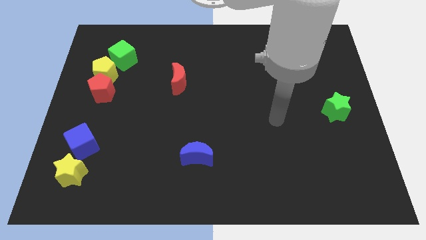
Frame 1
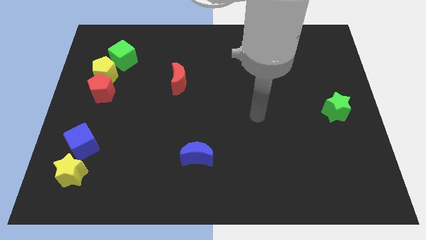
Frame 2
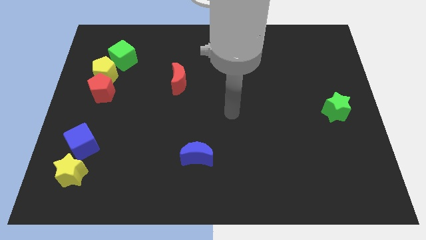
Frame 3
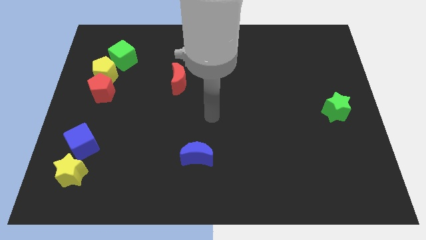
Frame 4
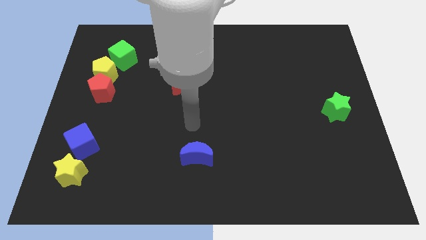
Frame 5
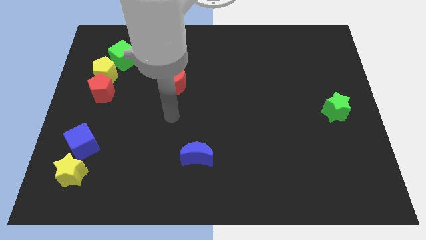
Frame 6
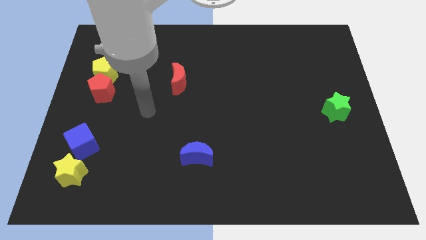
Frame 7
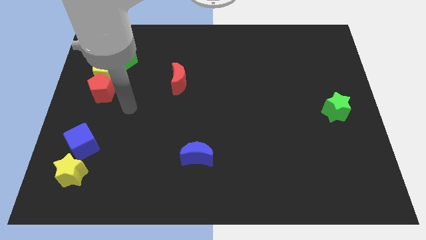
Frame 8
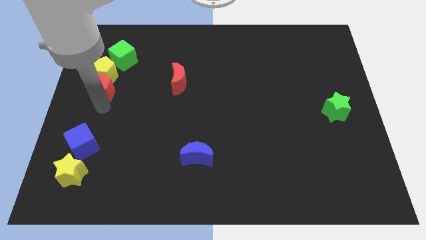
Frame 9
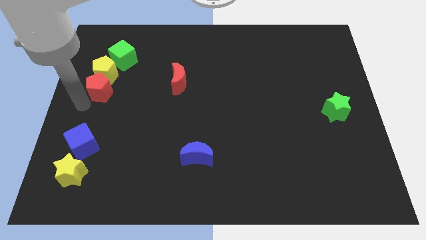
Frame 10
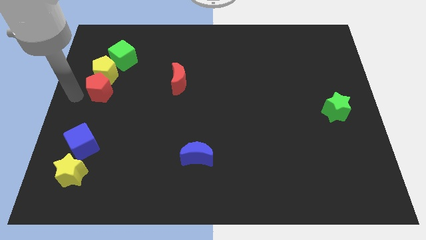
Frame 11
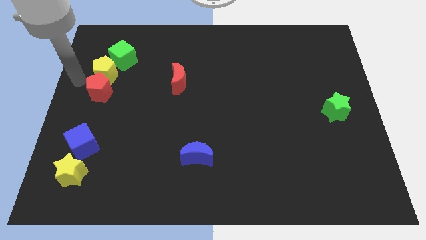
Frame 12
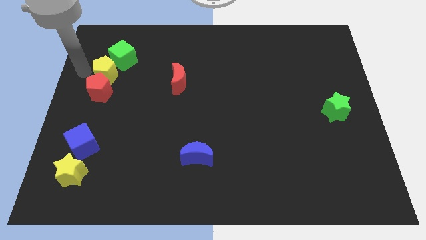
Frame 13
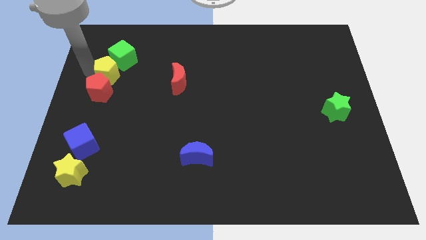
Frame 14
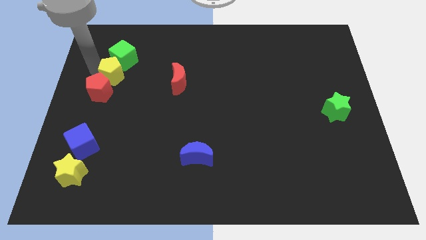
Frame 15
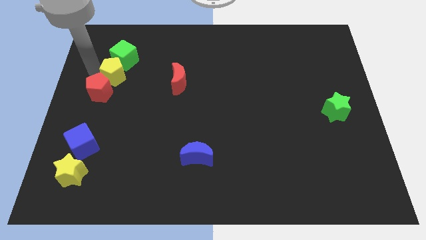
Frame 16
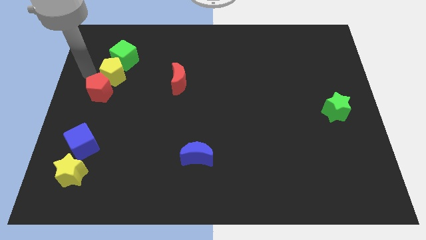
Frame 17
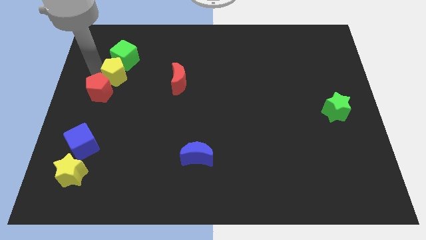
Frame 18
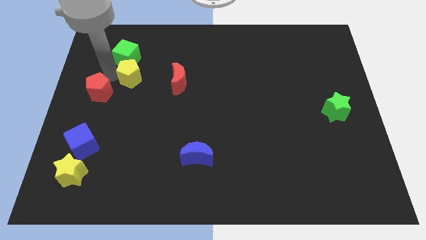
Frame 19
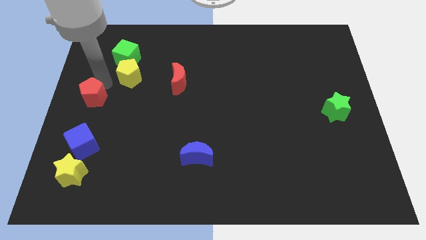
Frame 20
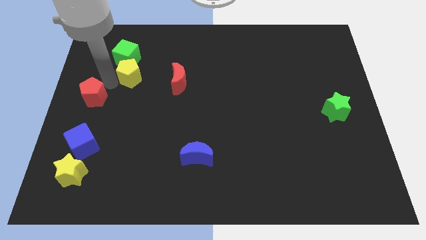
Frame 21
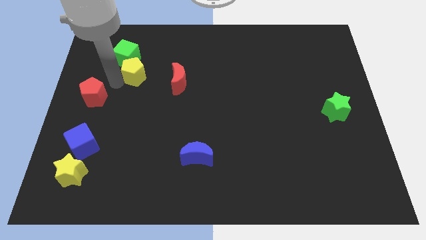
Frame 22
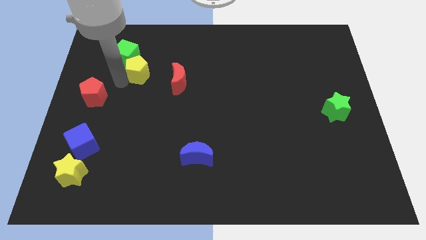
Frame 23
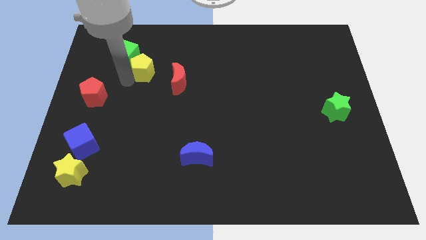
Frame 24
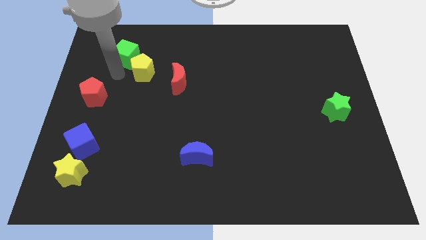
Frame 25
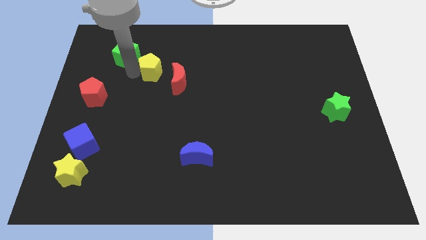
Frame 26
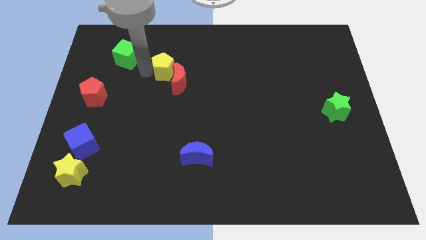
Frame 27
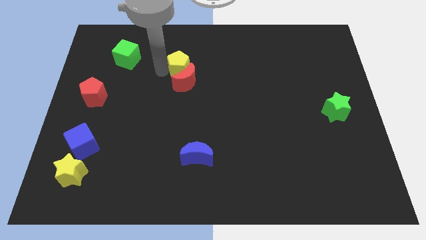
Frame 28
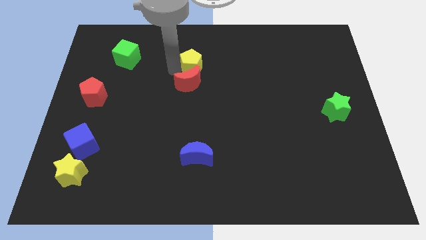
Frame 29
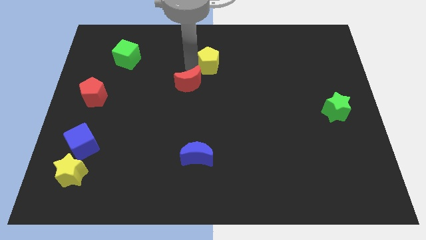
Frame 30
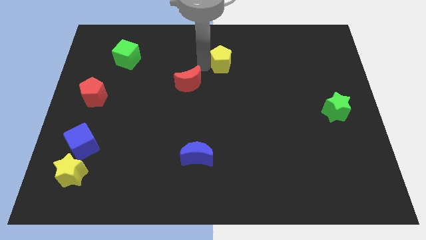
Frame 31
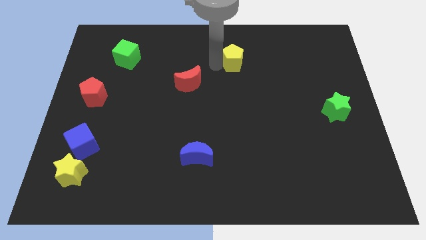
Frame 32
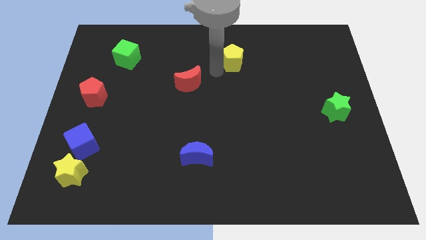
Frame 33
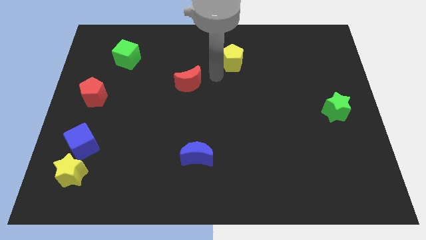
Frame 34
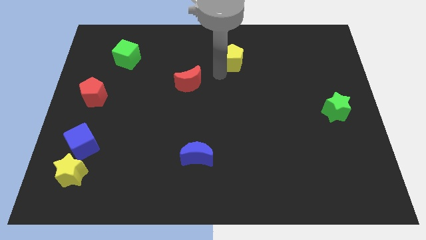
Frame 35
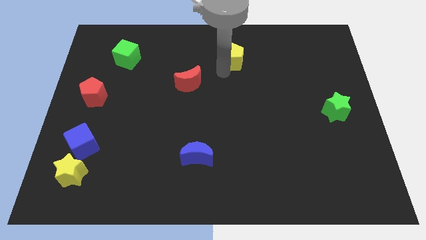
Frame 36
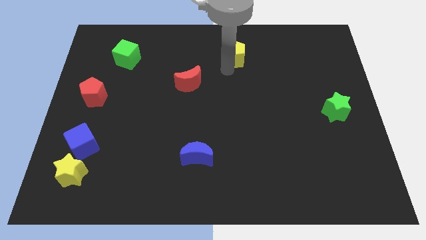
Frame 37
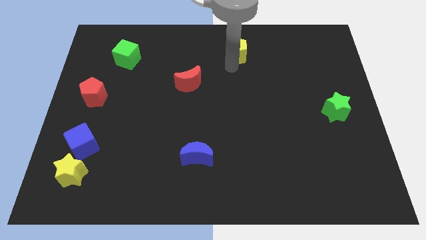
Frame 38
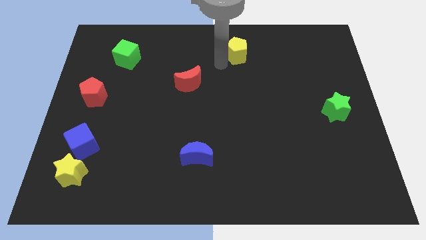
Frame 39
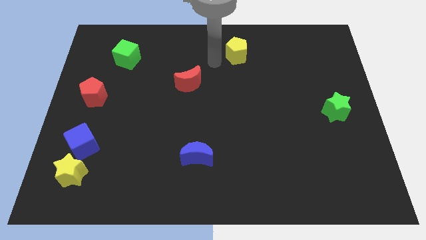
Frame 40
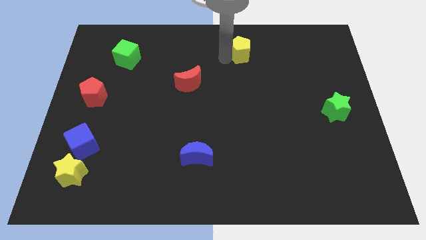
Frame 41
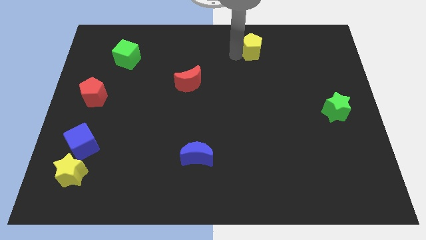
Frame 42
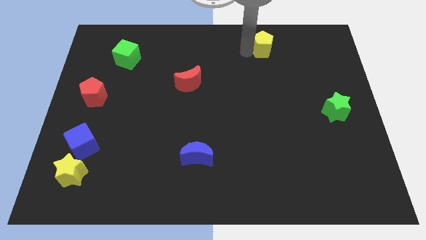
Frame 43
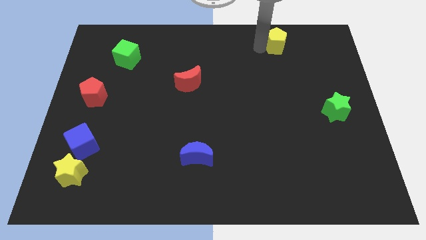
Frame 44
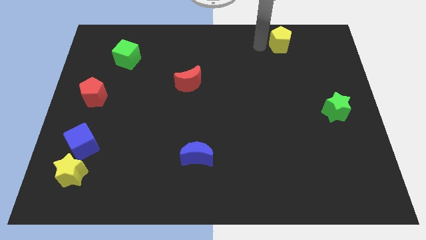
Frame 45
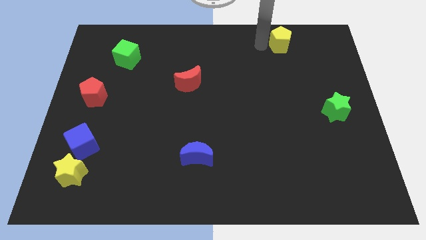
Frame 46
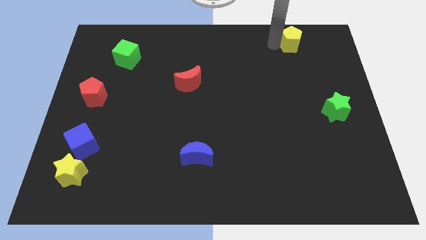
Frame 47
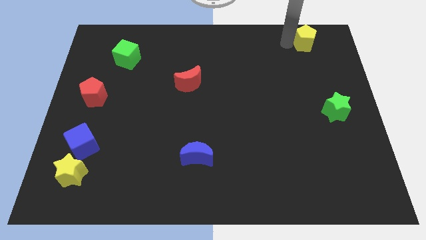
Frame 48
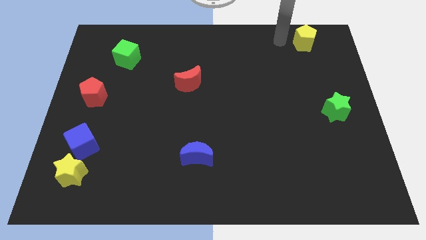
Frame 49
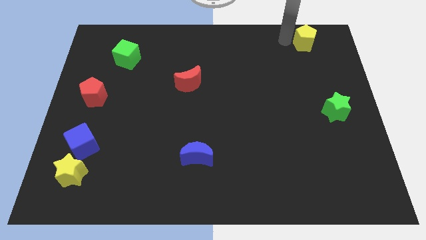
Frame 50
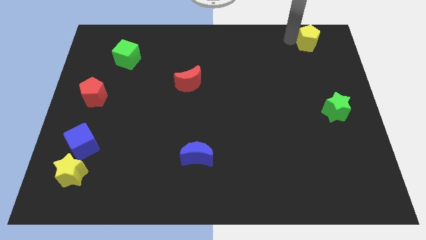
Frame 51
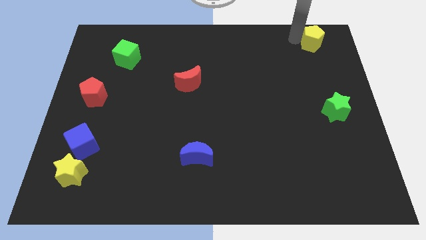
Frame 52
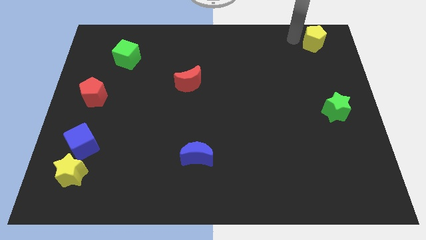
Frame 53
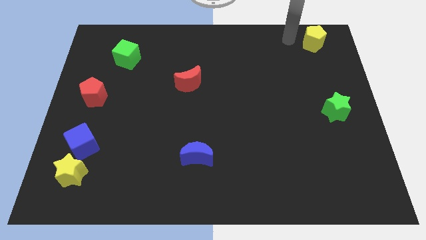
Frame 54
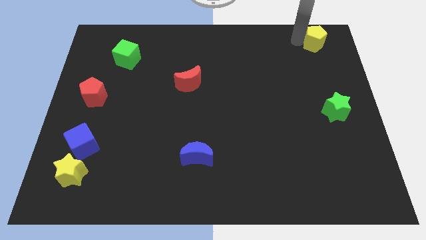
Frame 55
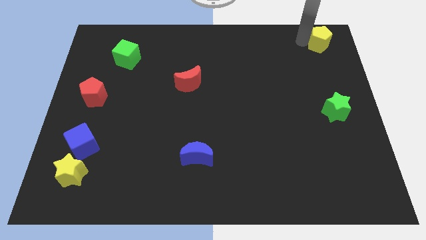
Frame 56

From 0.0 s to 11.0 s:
move the yellow pentagon to the upper right corner

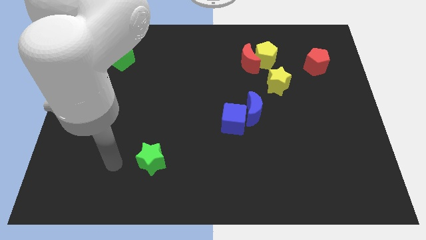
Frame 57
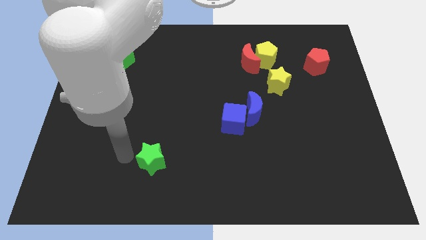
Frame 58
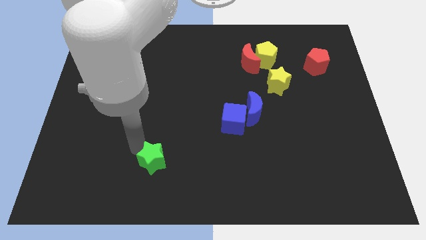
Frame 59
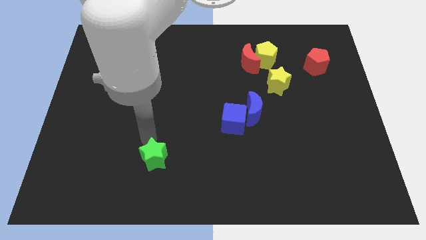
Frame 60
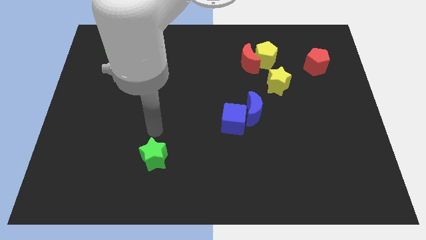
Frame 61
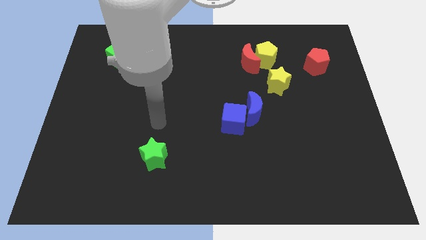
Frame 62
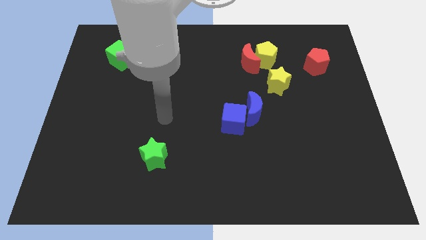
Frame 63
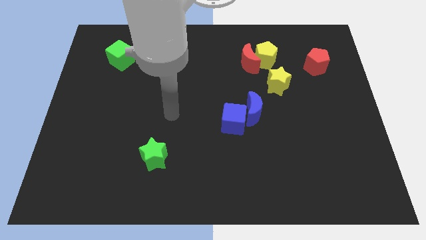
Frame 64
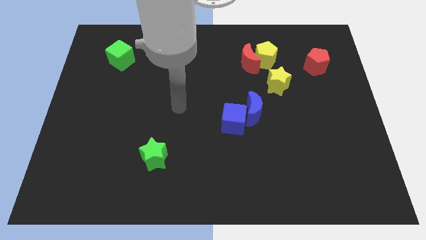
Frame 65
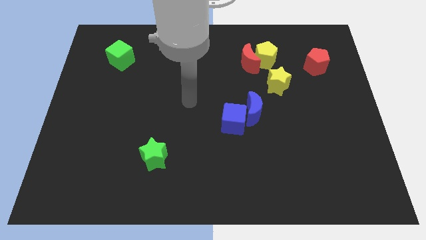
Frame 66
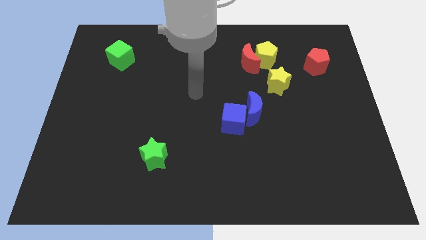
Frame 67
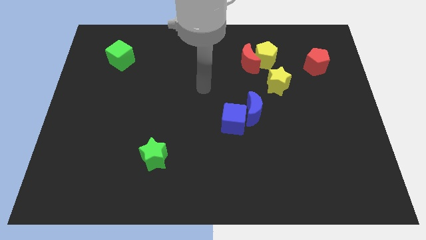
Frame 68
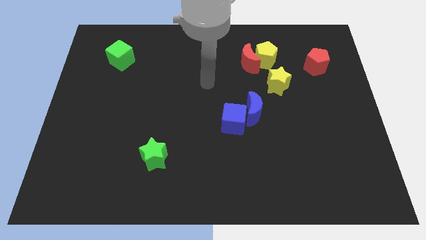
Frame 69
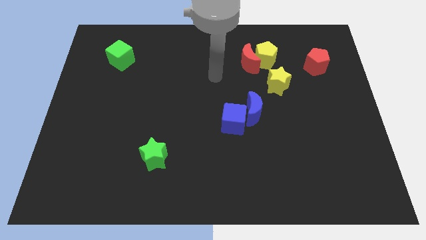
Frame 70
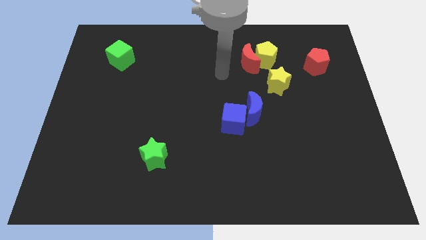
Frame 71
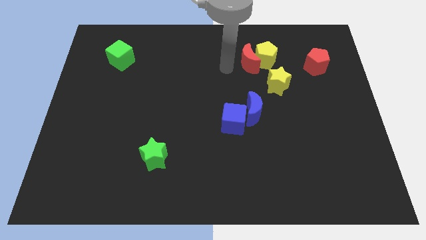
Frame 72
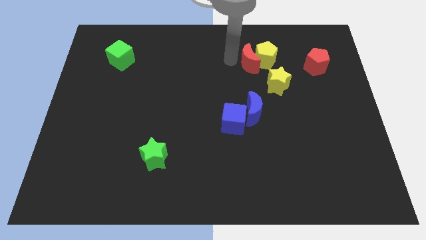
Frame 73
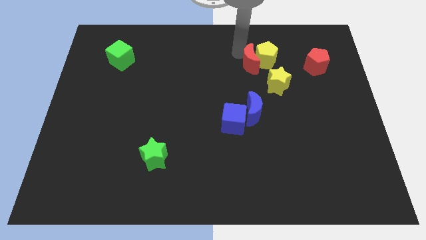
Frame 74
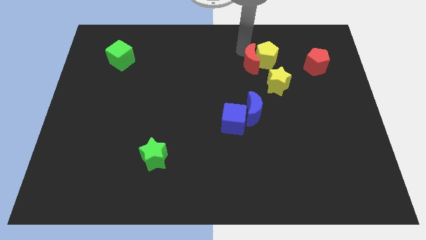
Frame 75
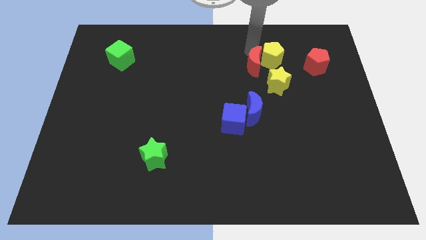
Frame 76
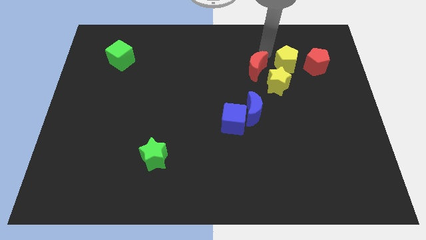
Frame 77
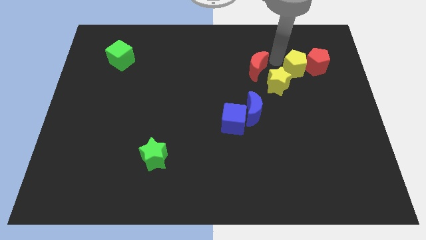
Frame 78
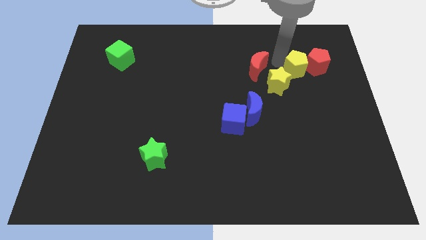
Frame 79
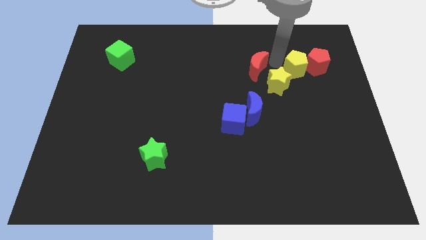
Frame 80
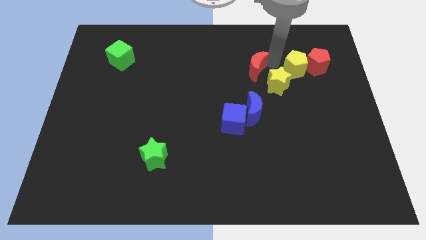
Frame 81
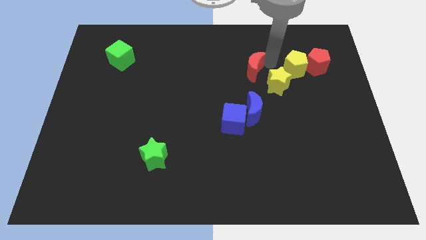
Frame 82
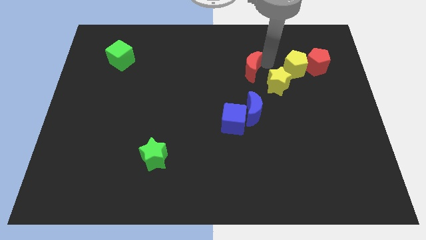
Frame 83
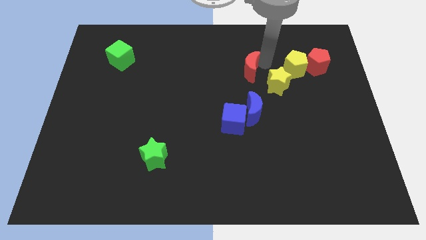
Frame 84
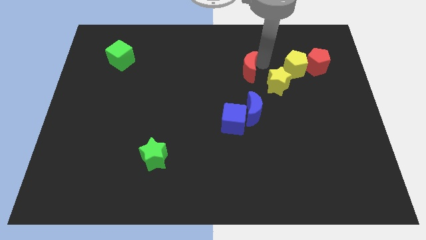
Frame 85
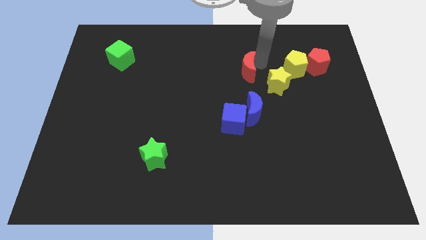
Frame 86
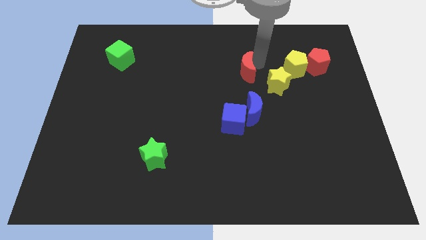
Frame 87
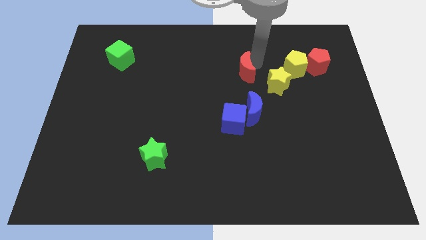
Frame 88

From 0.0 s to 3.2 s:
slide the red moon to the center of the board
